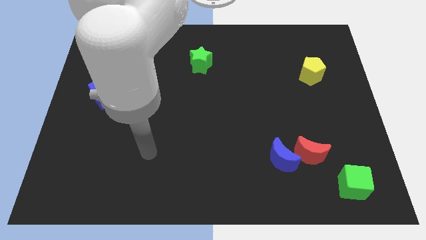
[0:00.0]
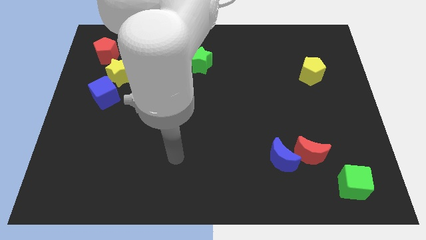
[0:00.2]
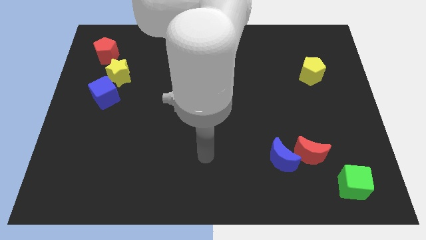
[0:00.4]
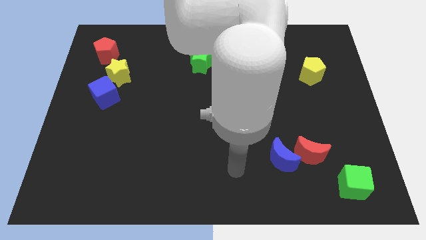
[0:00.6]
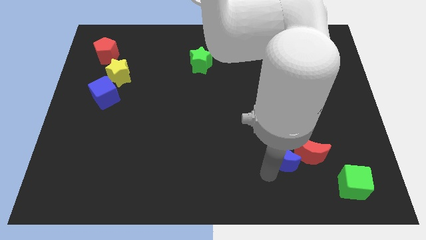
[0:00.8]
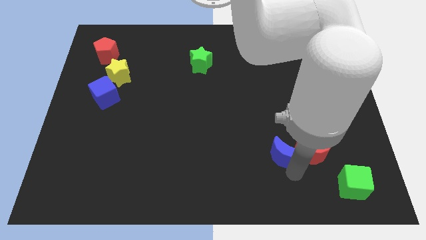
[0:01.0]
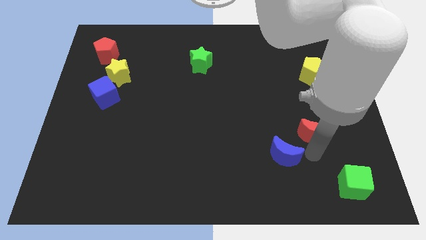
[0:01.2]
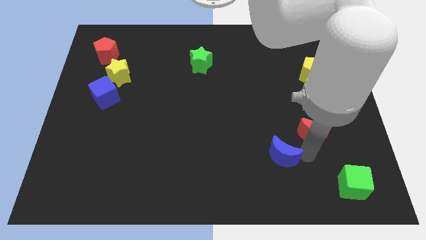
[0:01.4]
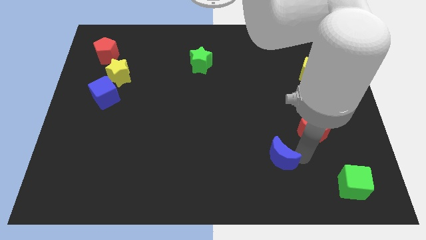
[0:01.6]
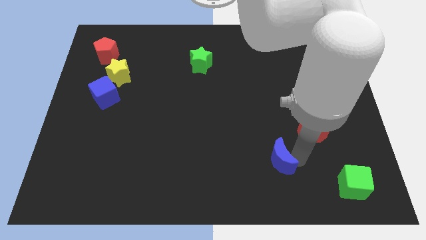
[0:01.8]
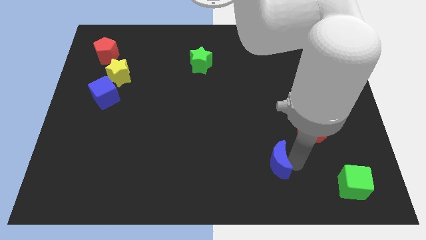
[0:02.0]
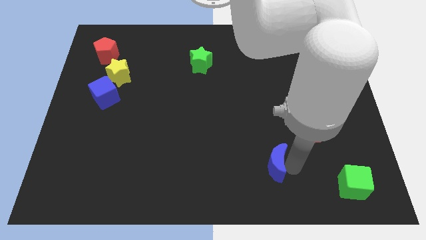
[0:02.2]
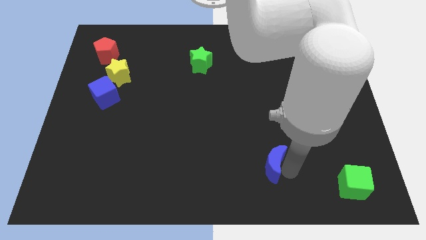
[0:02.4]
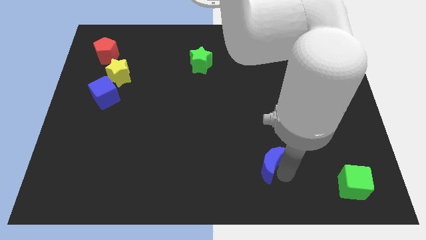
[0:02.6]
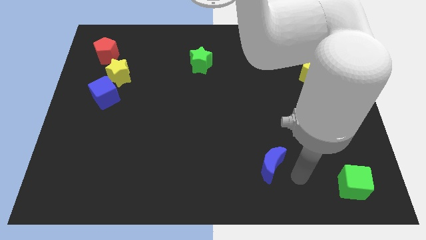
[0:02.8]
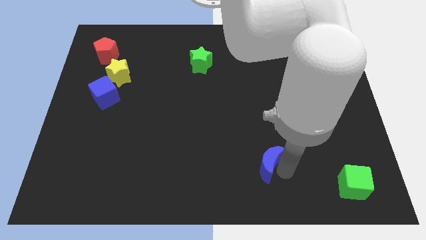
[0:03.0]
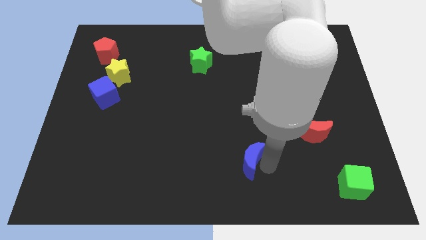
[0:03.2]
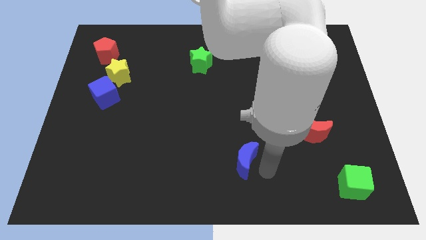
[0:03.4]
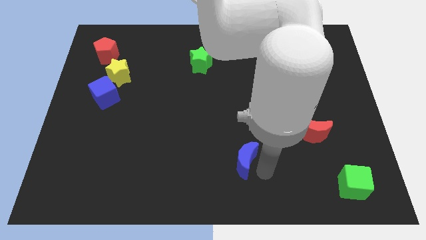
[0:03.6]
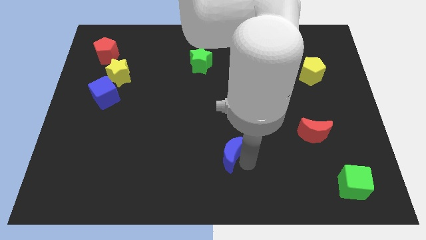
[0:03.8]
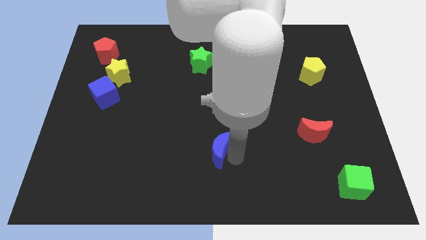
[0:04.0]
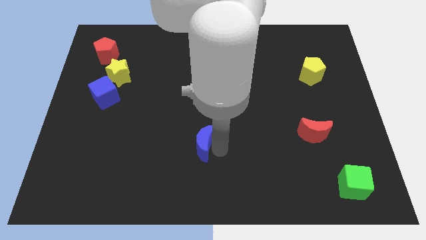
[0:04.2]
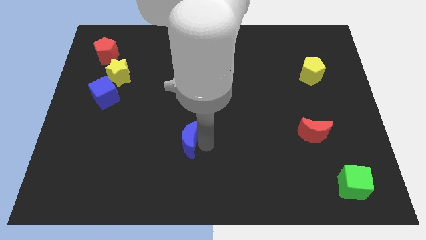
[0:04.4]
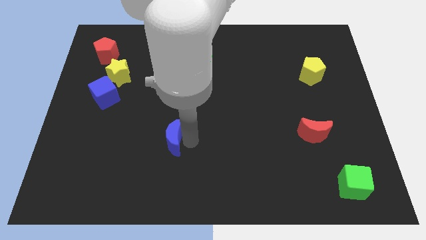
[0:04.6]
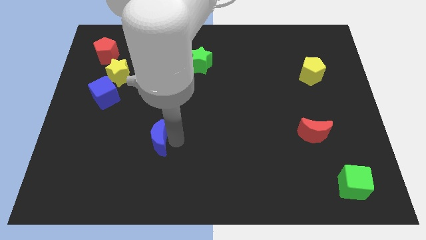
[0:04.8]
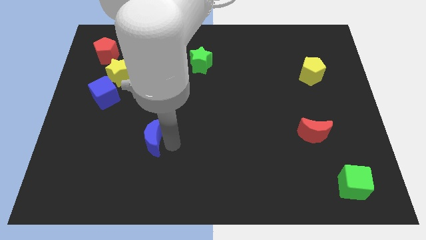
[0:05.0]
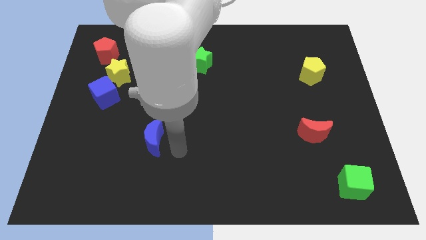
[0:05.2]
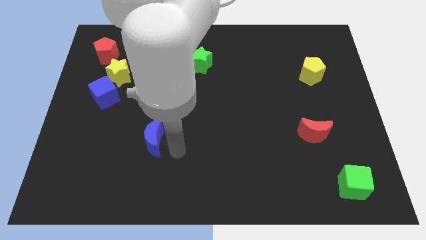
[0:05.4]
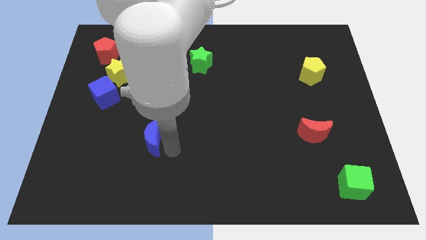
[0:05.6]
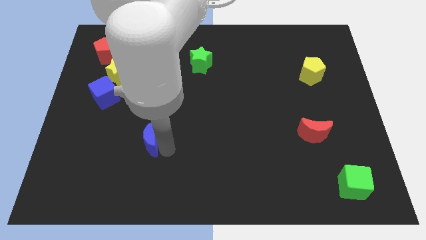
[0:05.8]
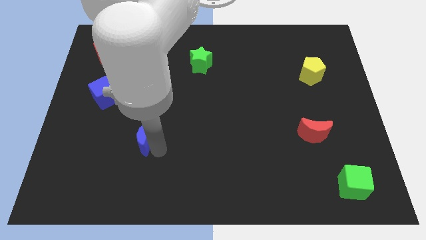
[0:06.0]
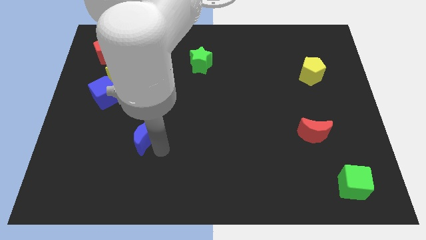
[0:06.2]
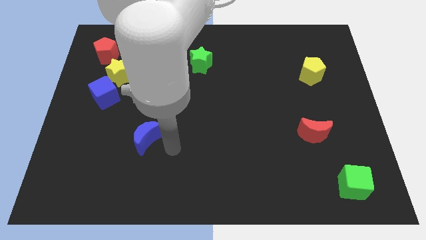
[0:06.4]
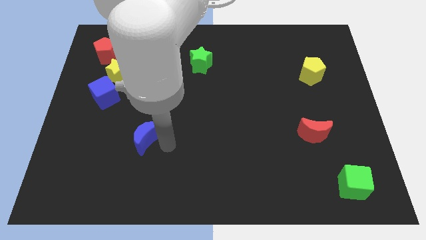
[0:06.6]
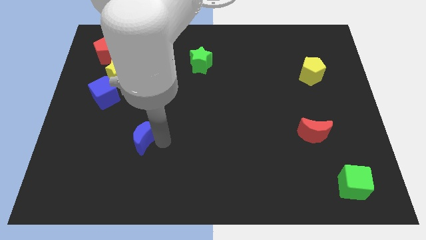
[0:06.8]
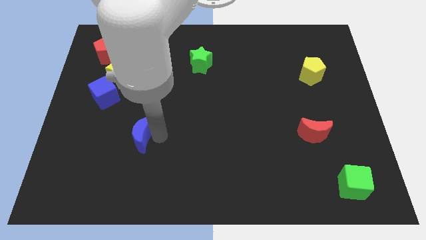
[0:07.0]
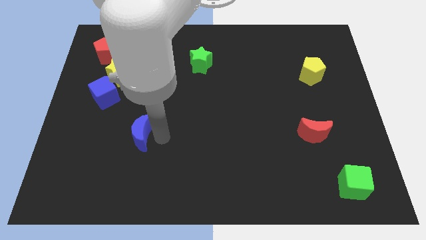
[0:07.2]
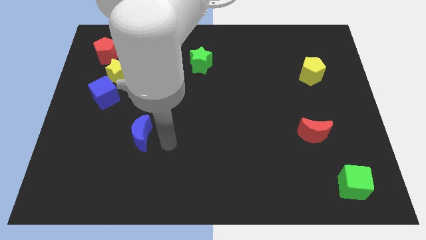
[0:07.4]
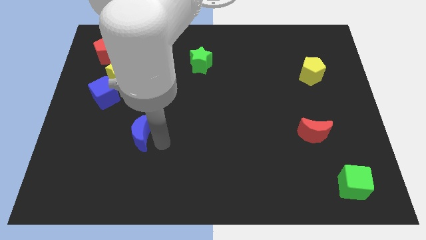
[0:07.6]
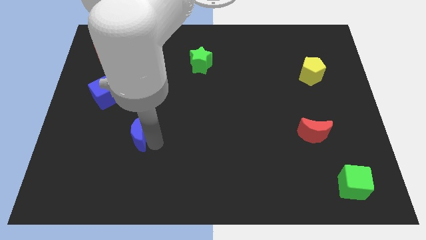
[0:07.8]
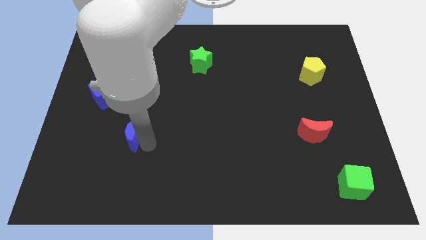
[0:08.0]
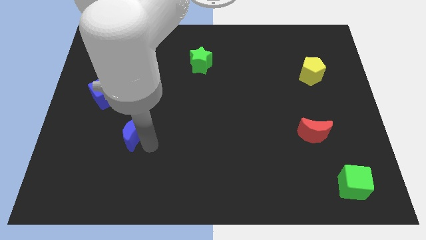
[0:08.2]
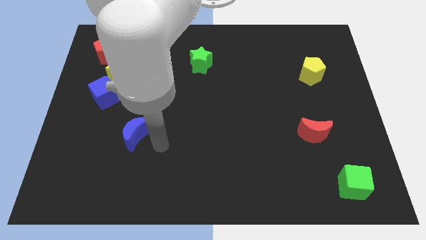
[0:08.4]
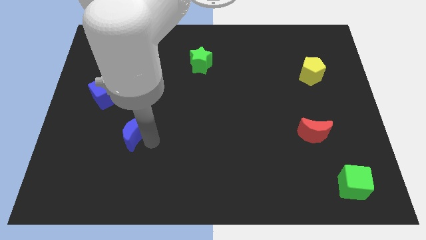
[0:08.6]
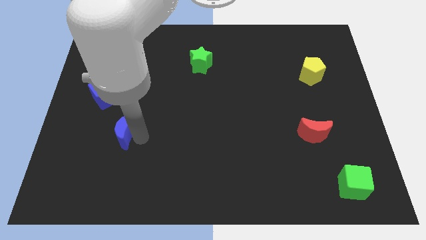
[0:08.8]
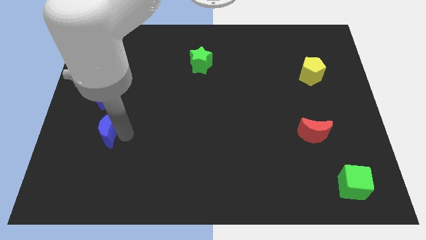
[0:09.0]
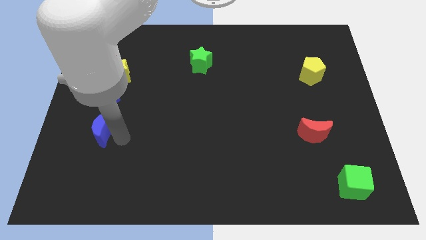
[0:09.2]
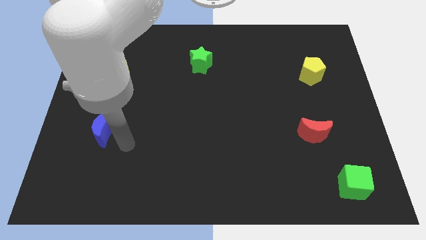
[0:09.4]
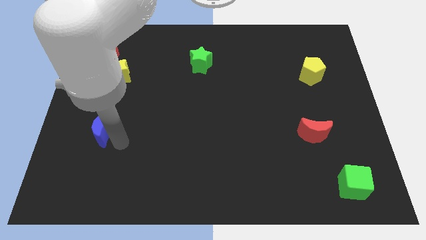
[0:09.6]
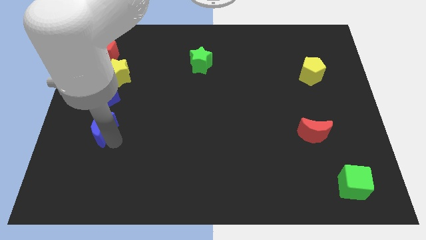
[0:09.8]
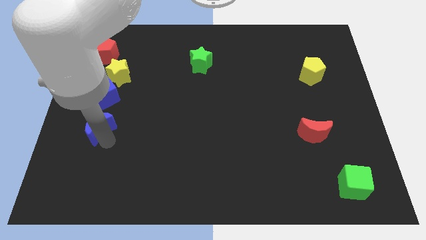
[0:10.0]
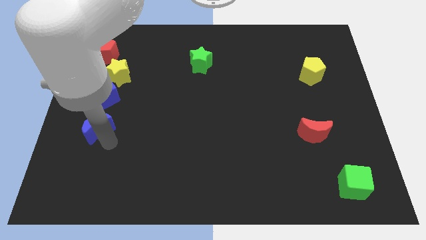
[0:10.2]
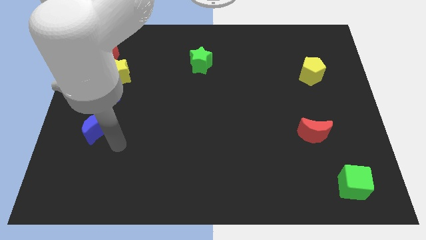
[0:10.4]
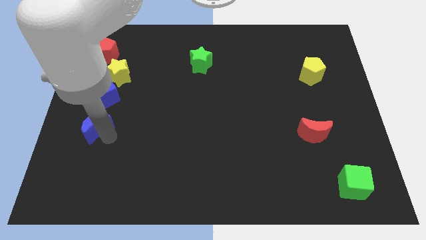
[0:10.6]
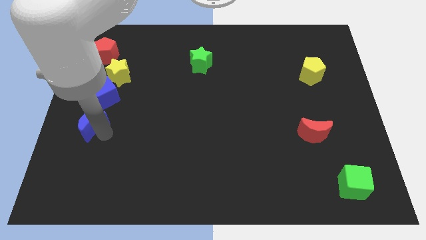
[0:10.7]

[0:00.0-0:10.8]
push the blue moon to the center left

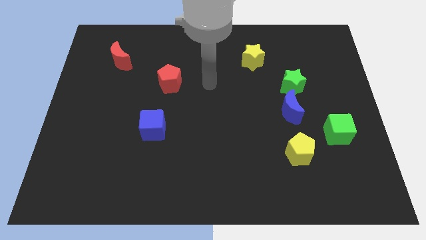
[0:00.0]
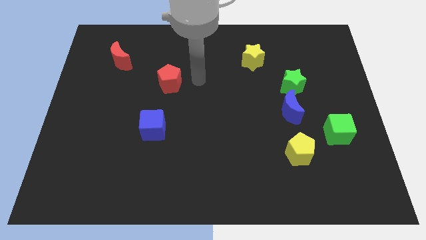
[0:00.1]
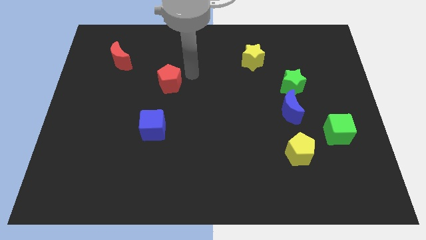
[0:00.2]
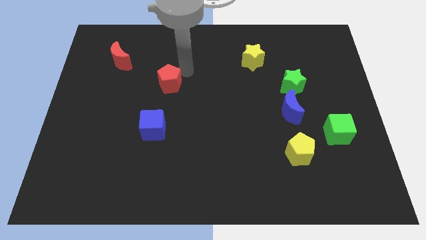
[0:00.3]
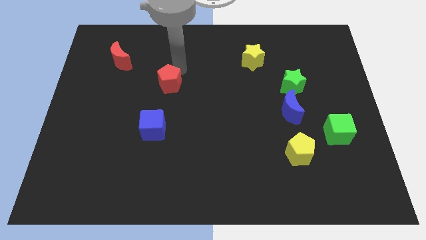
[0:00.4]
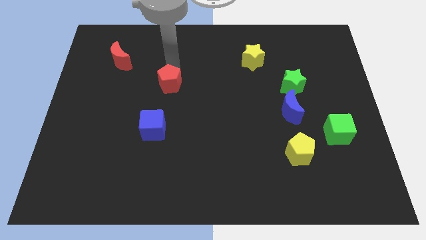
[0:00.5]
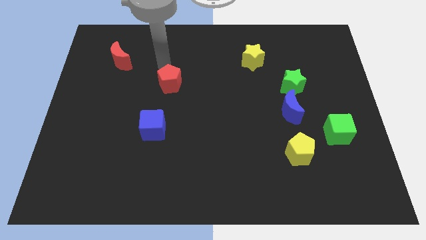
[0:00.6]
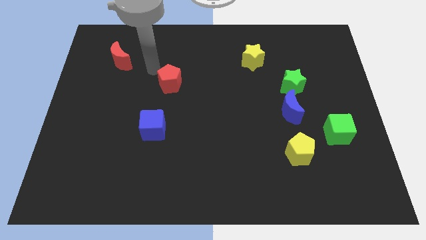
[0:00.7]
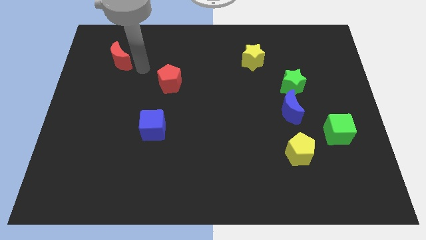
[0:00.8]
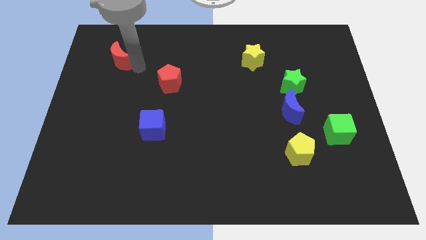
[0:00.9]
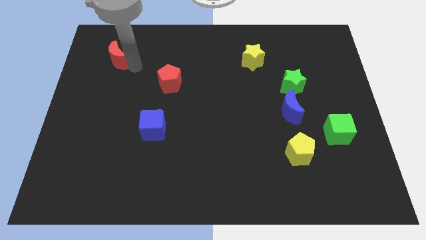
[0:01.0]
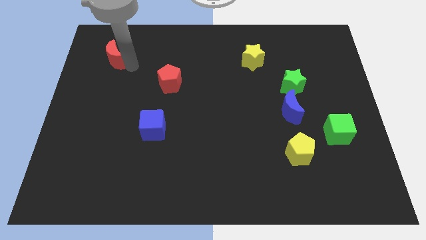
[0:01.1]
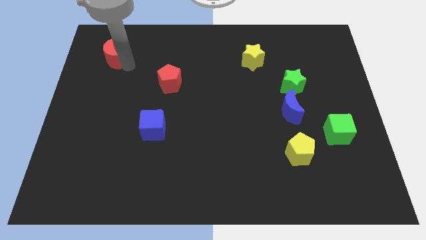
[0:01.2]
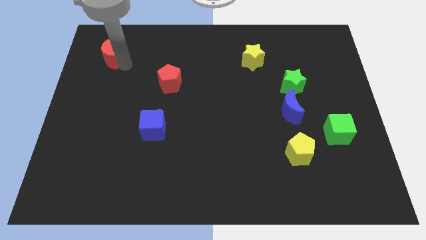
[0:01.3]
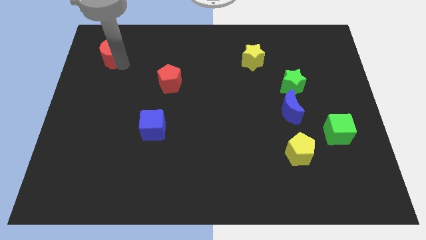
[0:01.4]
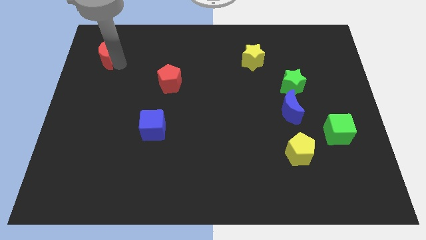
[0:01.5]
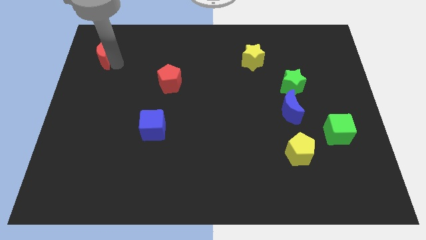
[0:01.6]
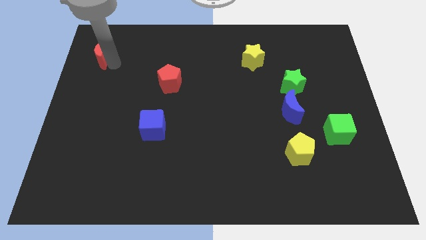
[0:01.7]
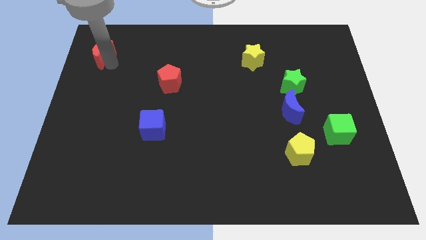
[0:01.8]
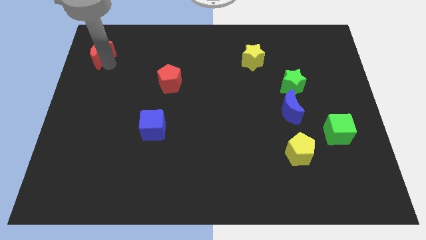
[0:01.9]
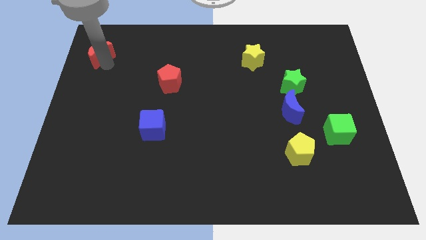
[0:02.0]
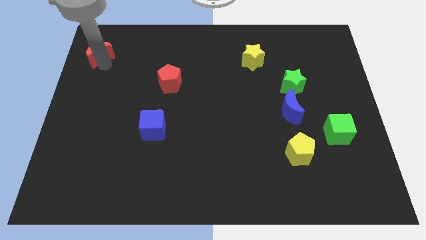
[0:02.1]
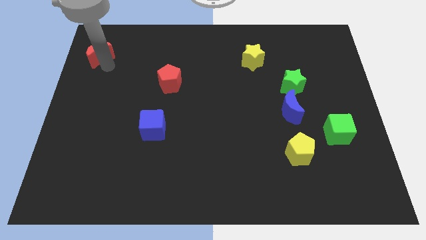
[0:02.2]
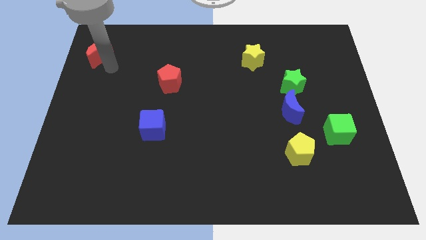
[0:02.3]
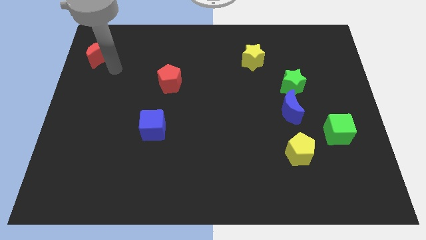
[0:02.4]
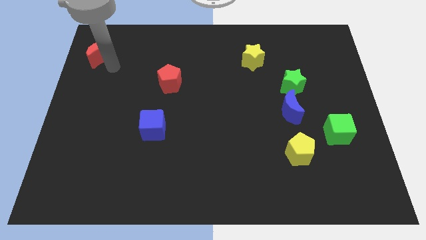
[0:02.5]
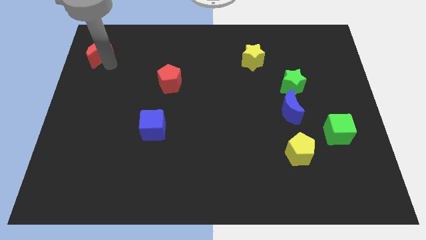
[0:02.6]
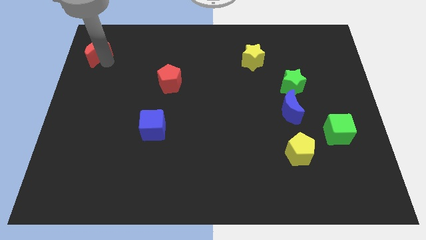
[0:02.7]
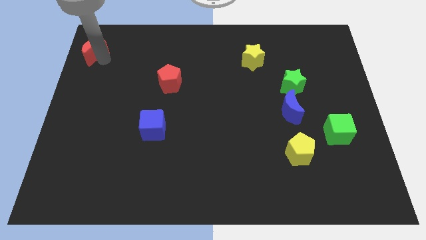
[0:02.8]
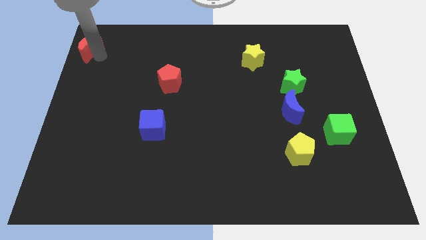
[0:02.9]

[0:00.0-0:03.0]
push the red moon to the top left of the board
